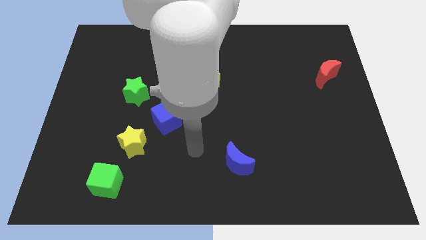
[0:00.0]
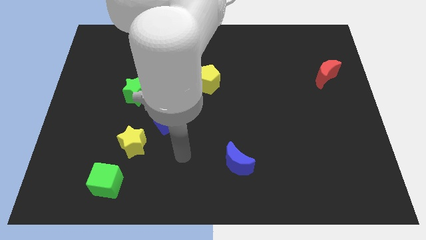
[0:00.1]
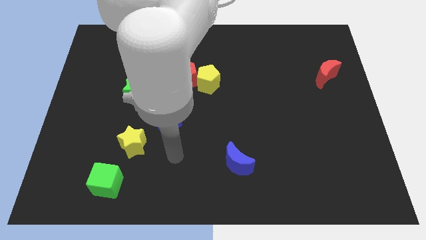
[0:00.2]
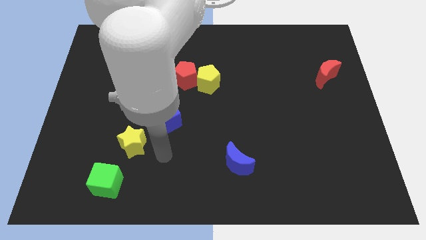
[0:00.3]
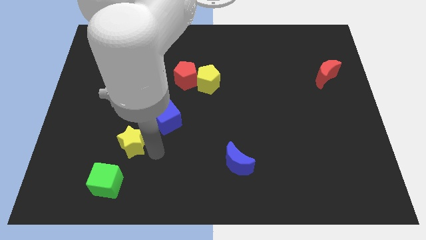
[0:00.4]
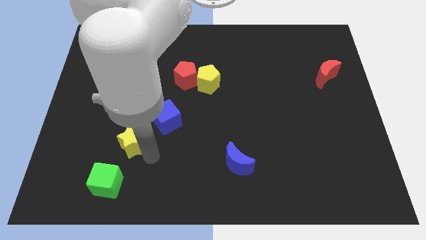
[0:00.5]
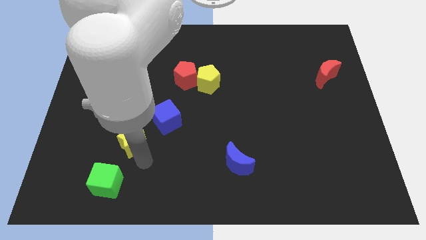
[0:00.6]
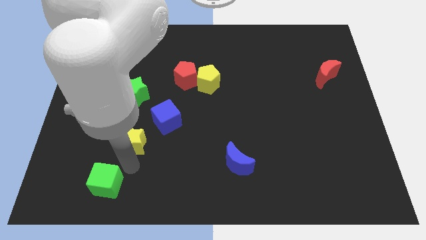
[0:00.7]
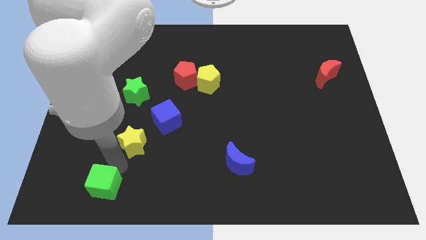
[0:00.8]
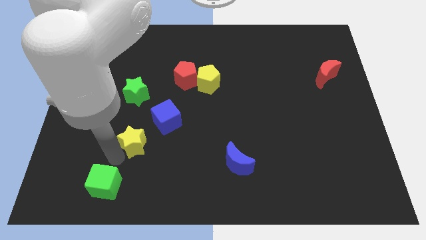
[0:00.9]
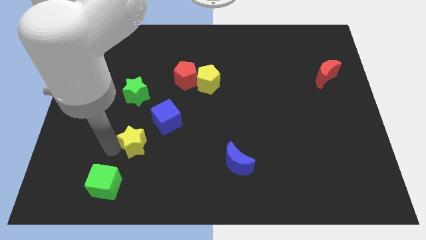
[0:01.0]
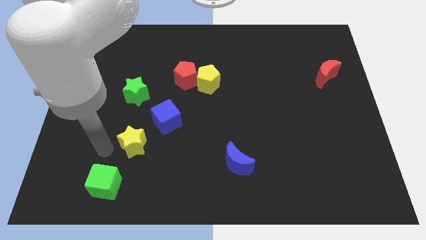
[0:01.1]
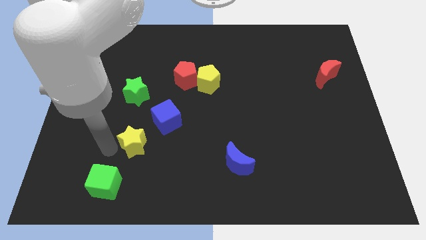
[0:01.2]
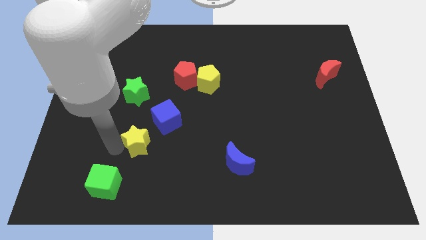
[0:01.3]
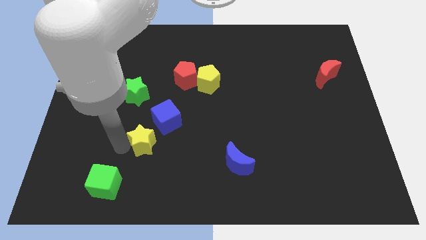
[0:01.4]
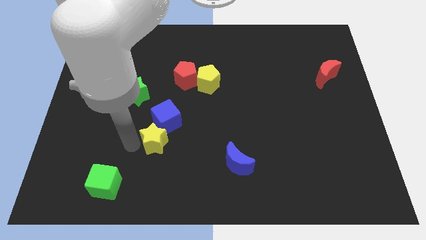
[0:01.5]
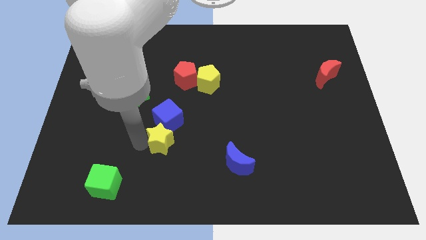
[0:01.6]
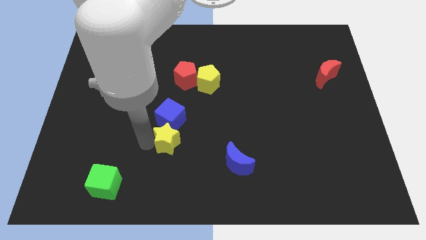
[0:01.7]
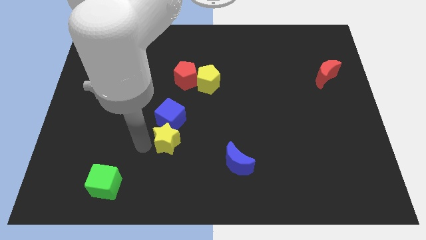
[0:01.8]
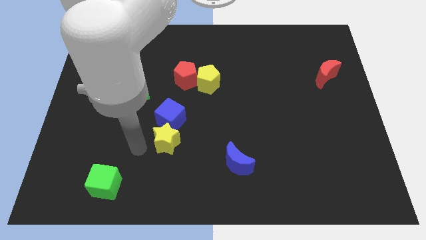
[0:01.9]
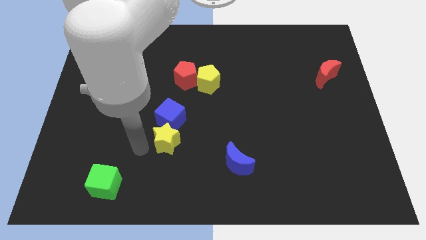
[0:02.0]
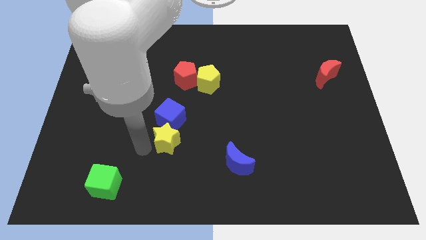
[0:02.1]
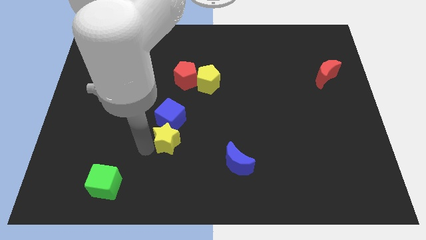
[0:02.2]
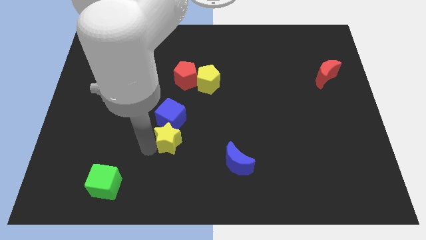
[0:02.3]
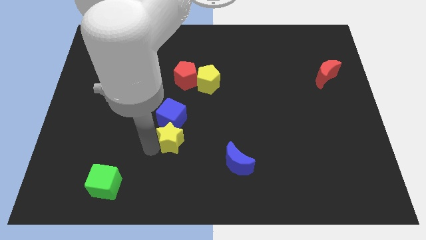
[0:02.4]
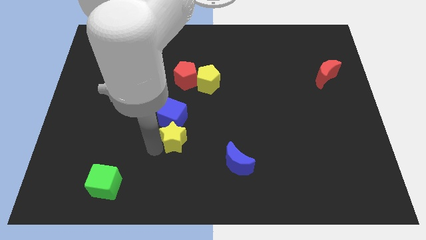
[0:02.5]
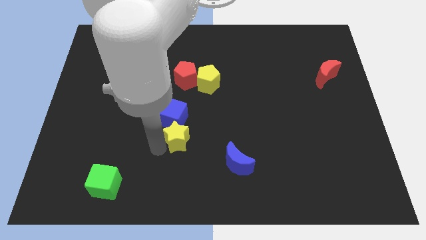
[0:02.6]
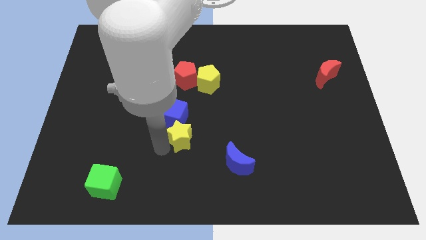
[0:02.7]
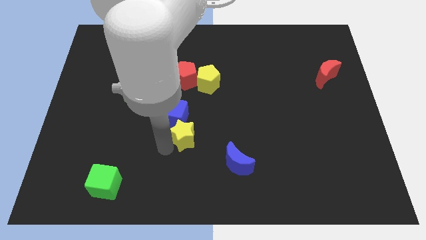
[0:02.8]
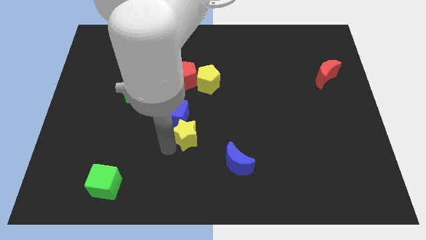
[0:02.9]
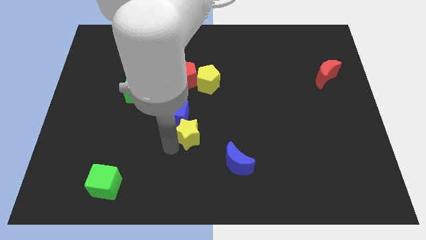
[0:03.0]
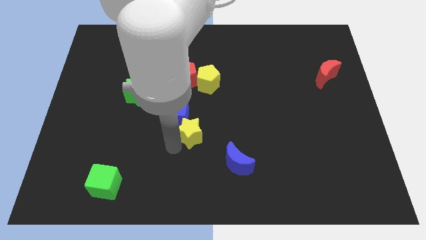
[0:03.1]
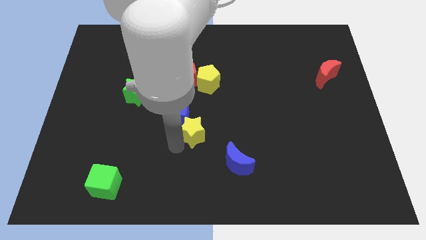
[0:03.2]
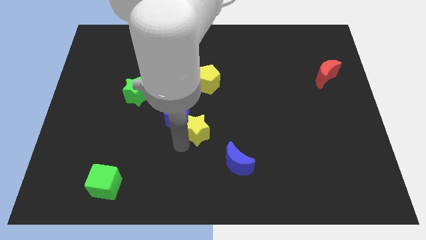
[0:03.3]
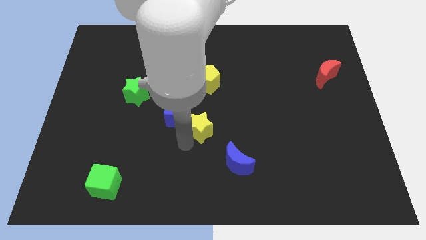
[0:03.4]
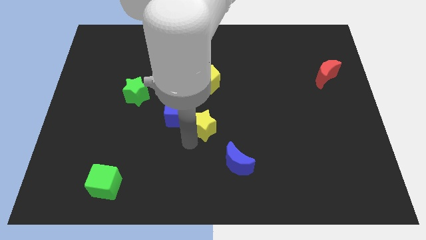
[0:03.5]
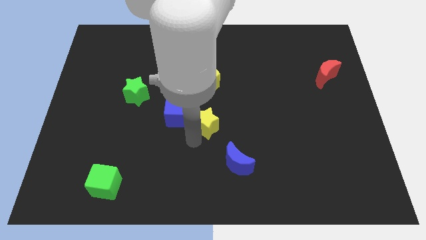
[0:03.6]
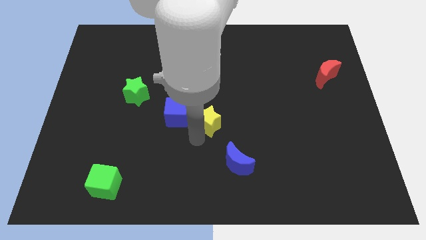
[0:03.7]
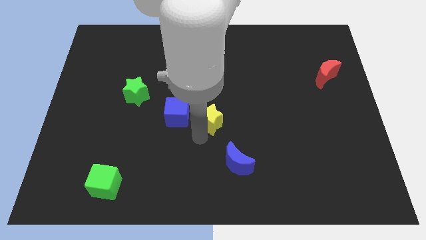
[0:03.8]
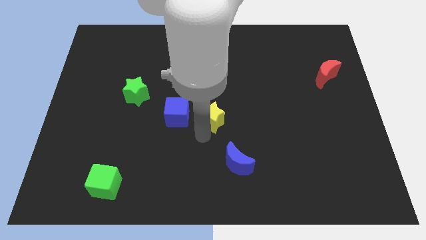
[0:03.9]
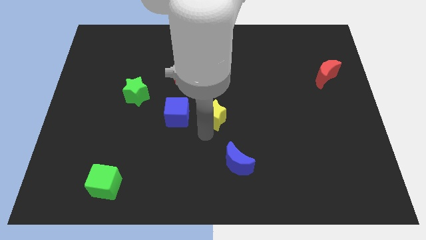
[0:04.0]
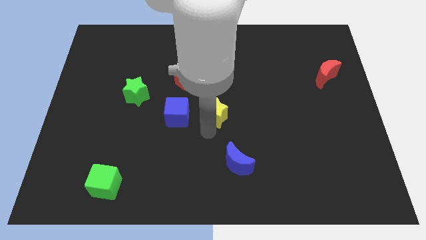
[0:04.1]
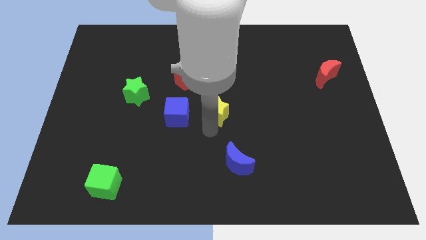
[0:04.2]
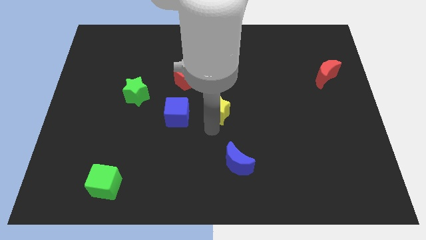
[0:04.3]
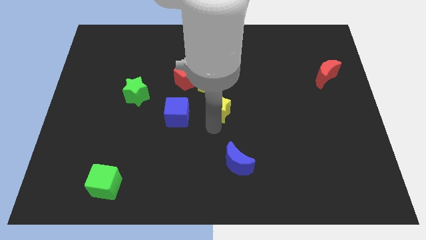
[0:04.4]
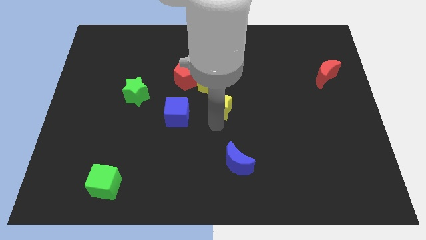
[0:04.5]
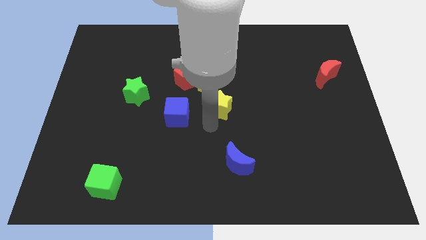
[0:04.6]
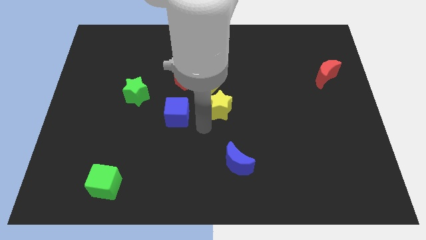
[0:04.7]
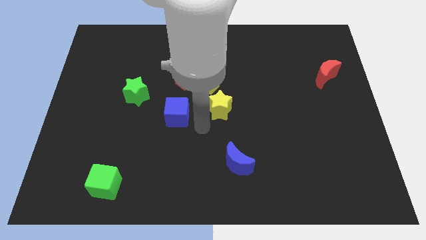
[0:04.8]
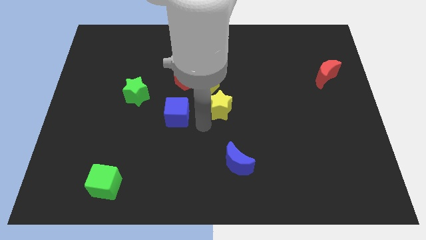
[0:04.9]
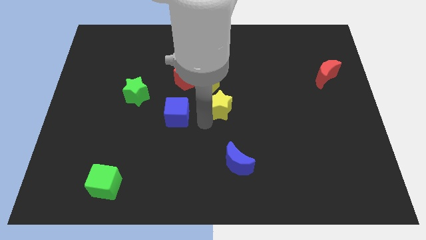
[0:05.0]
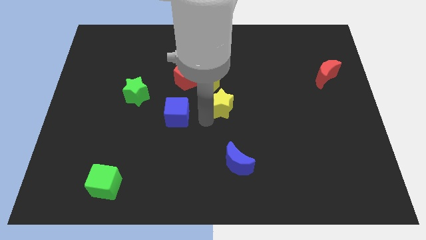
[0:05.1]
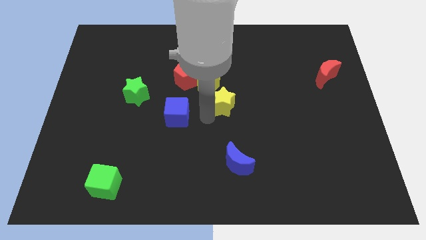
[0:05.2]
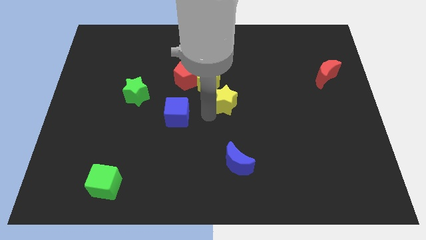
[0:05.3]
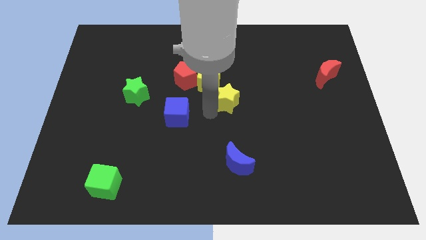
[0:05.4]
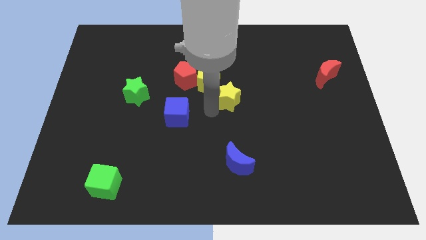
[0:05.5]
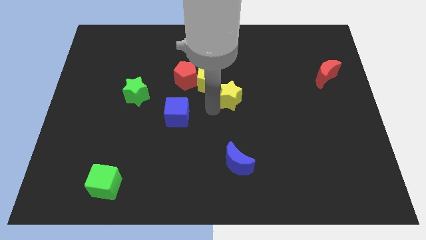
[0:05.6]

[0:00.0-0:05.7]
push the yellow star to the right side of the yellow pentagon

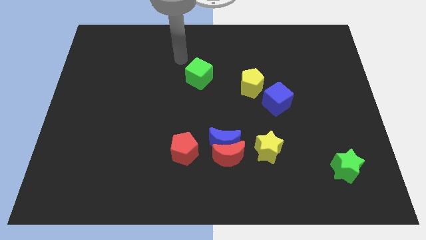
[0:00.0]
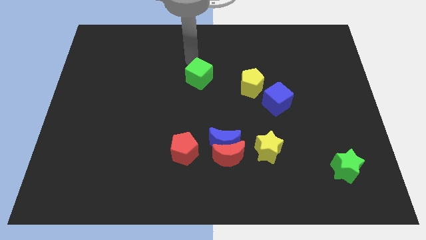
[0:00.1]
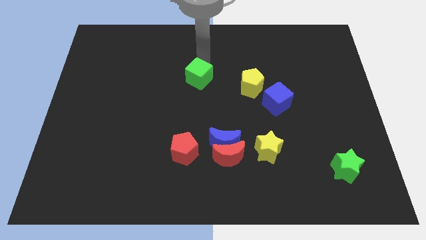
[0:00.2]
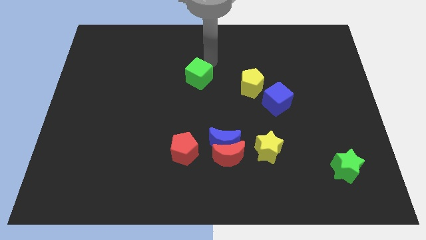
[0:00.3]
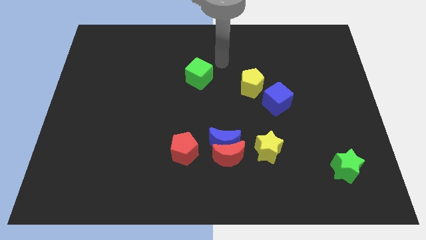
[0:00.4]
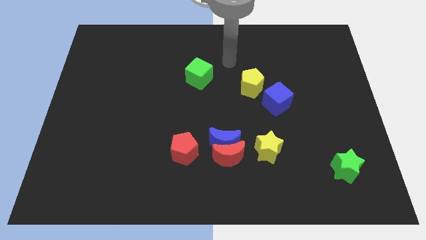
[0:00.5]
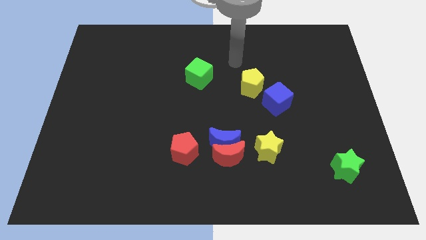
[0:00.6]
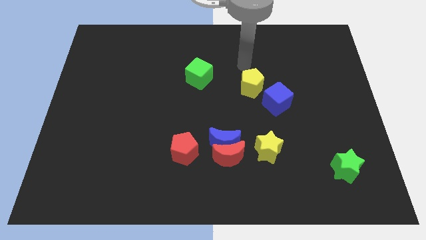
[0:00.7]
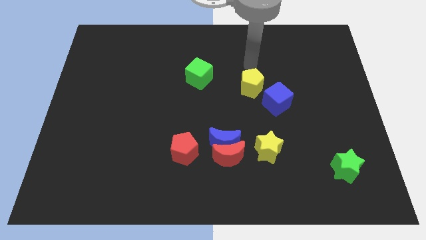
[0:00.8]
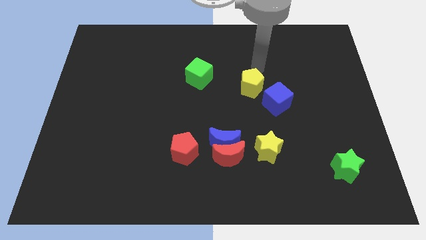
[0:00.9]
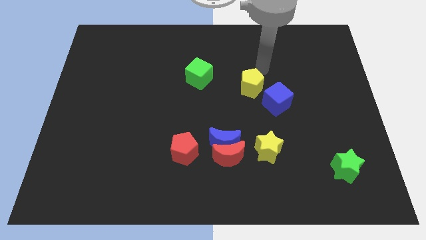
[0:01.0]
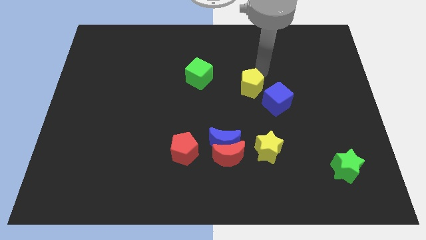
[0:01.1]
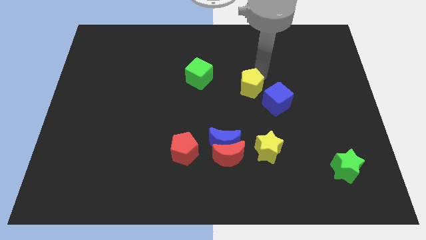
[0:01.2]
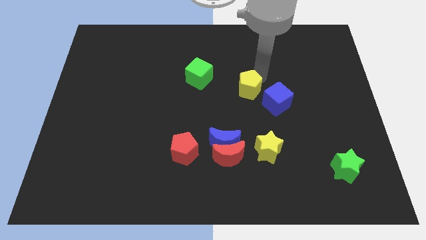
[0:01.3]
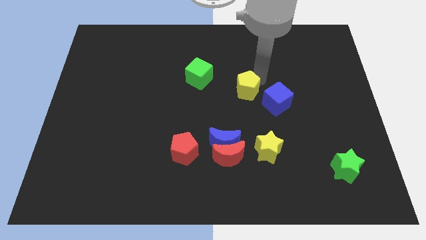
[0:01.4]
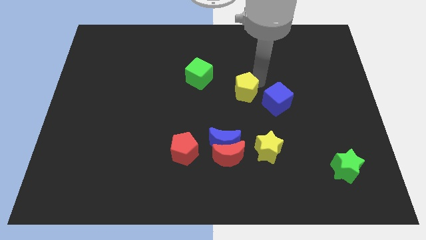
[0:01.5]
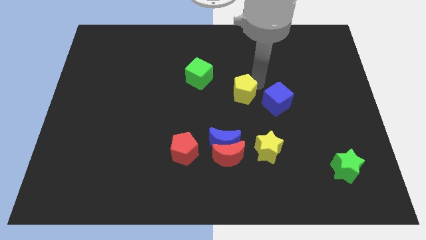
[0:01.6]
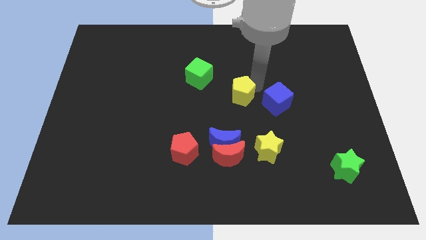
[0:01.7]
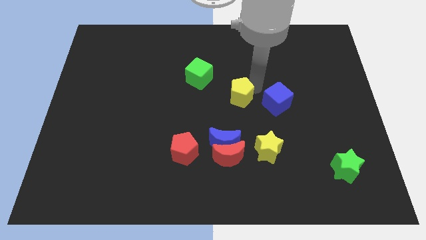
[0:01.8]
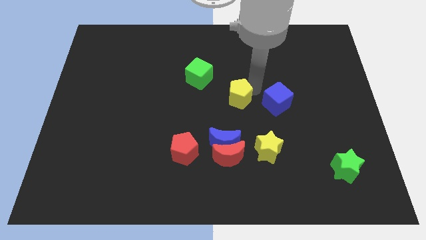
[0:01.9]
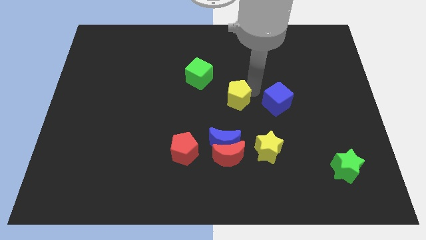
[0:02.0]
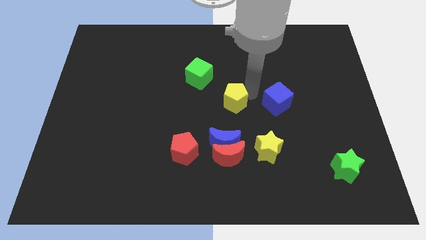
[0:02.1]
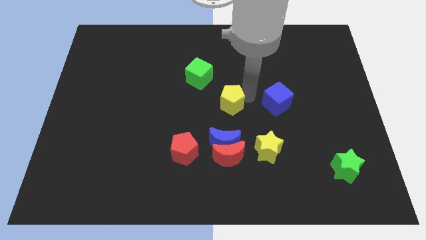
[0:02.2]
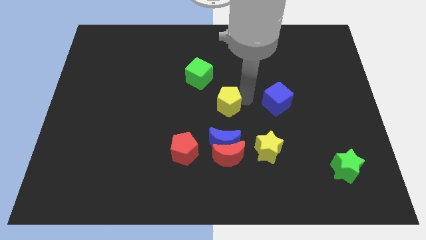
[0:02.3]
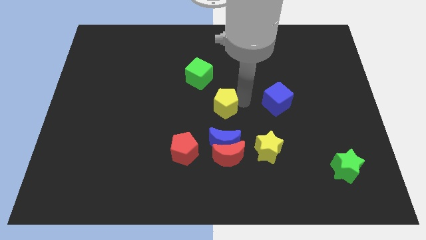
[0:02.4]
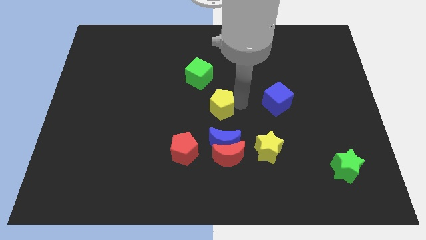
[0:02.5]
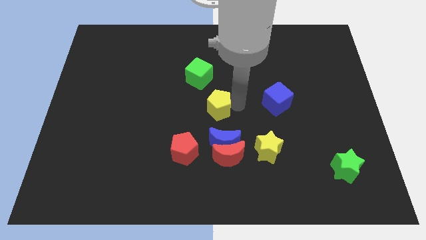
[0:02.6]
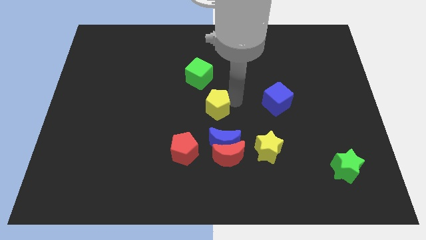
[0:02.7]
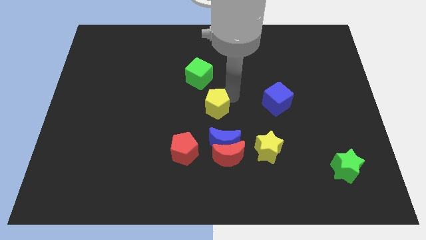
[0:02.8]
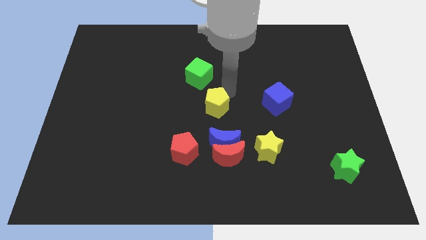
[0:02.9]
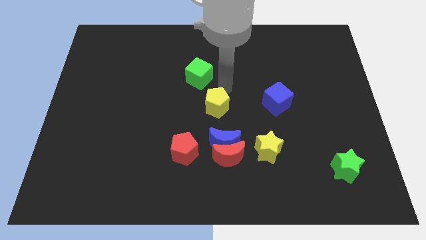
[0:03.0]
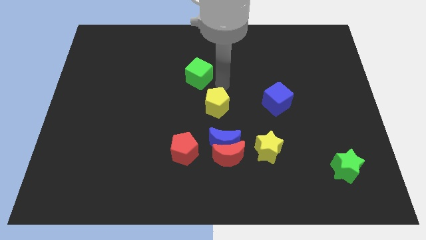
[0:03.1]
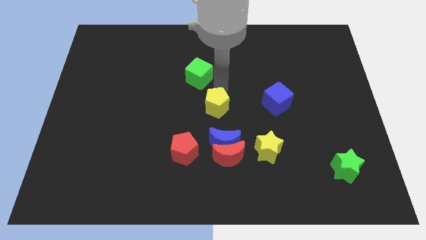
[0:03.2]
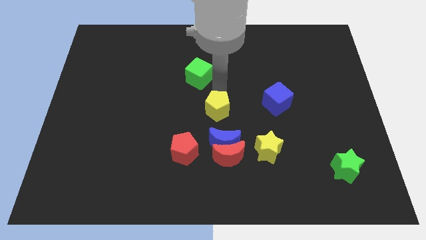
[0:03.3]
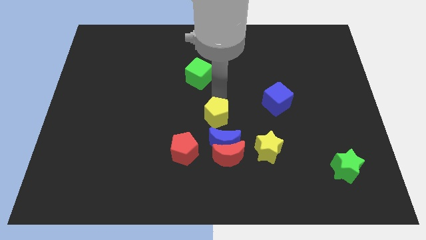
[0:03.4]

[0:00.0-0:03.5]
slide the yellow pentagon diagonally up and to the right of the red pentagon
